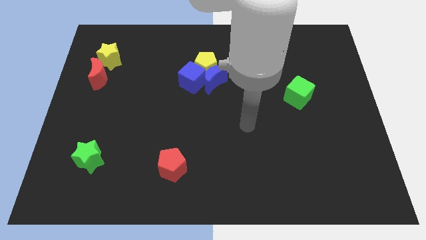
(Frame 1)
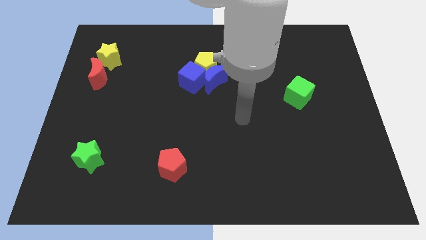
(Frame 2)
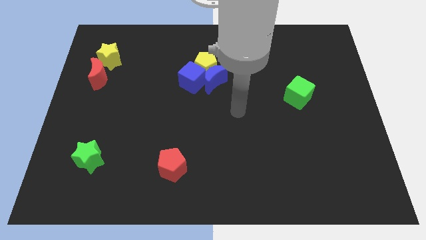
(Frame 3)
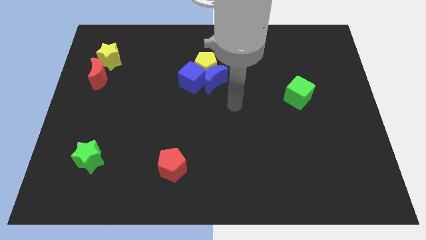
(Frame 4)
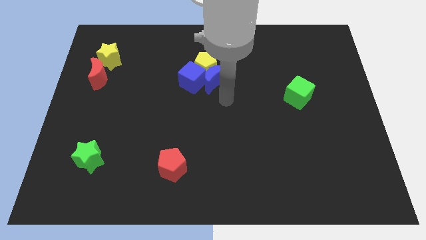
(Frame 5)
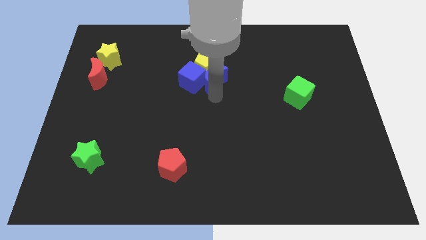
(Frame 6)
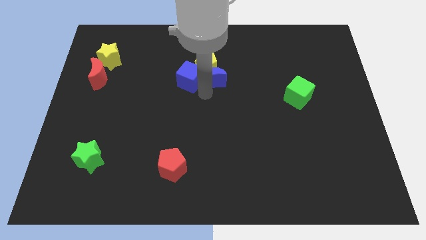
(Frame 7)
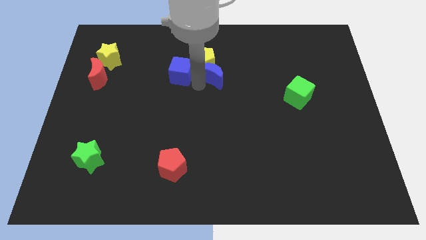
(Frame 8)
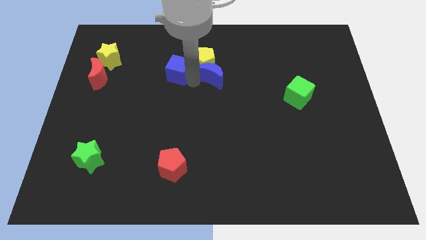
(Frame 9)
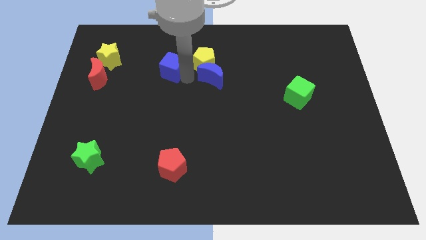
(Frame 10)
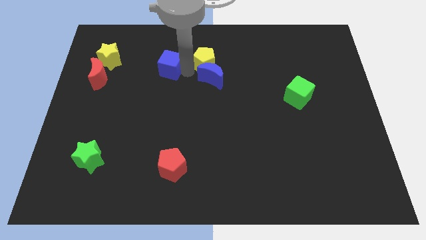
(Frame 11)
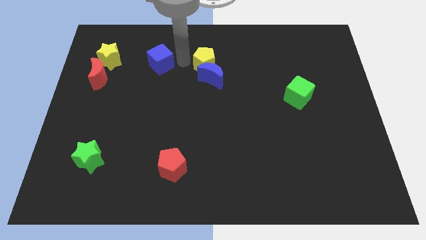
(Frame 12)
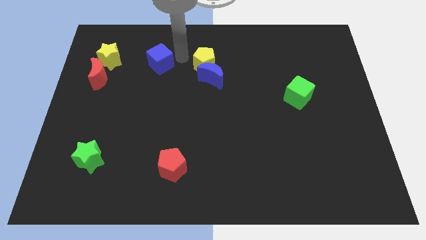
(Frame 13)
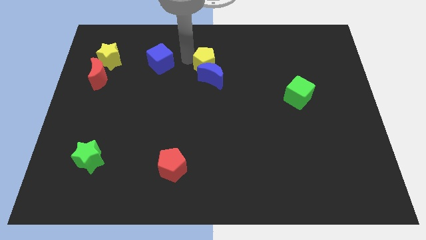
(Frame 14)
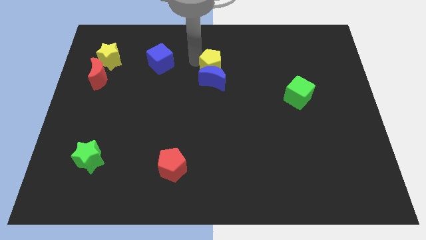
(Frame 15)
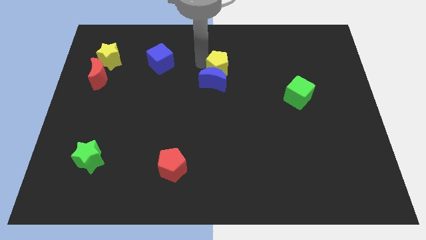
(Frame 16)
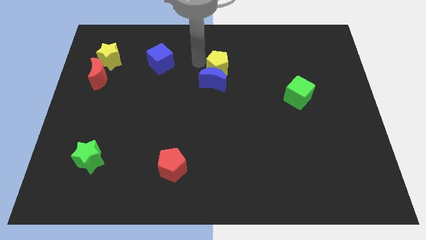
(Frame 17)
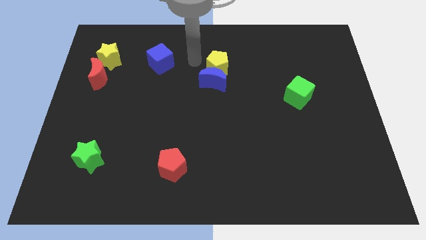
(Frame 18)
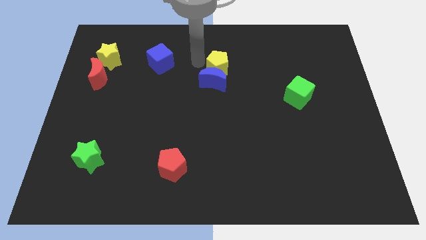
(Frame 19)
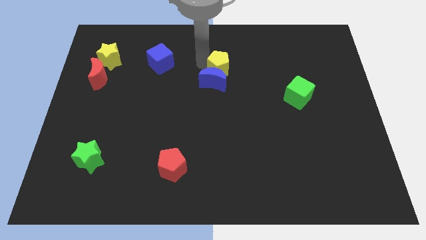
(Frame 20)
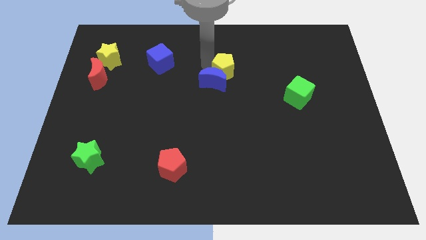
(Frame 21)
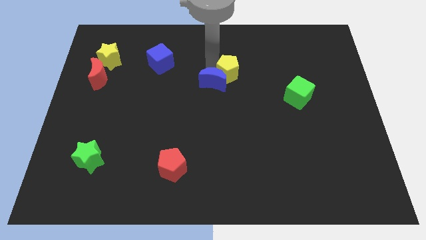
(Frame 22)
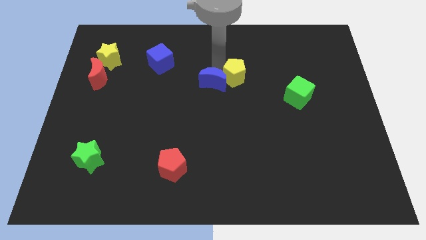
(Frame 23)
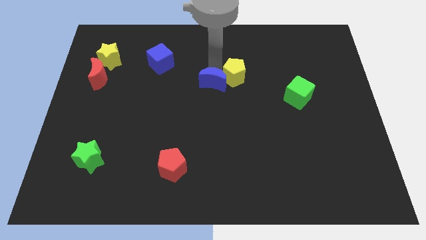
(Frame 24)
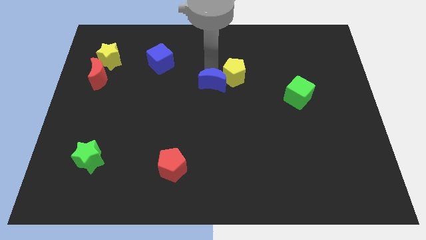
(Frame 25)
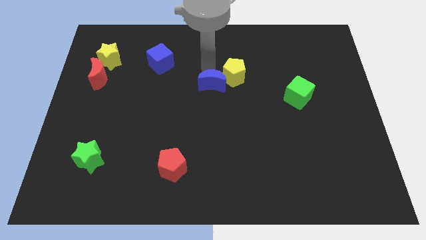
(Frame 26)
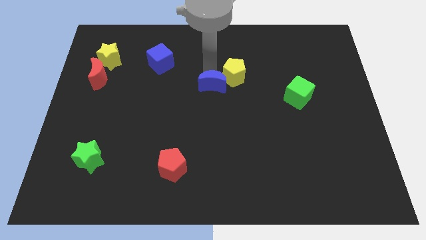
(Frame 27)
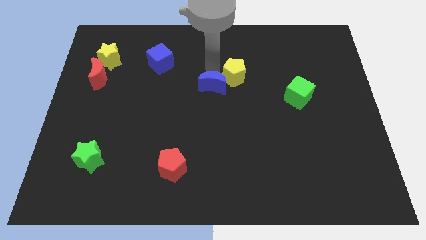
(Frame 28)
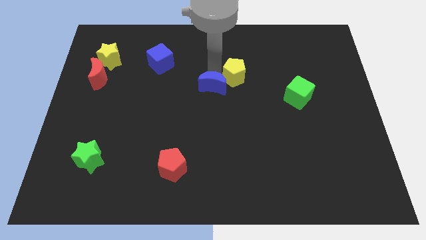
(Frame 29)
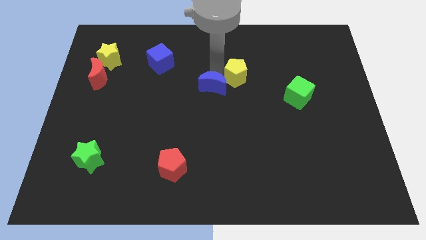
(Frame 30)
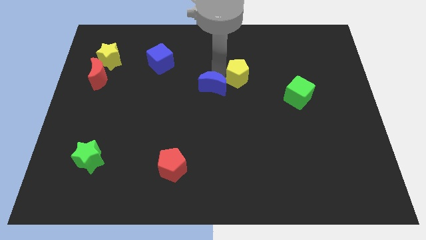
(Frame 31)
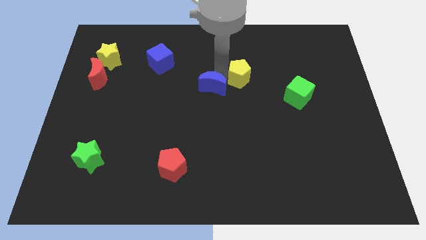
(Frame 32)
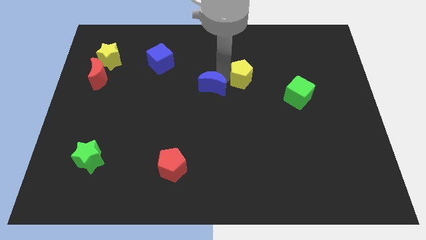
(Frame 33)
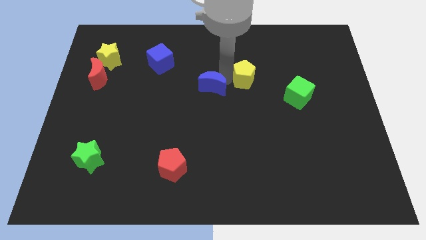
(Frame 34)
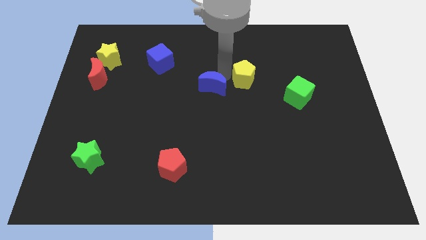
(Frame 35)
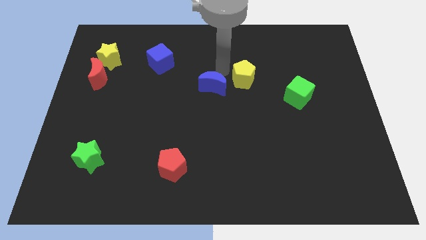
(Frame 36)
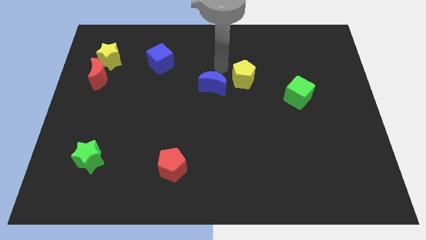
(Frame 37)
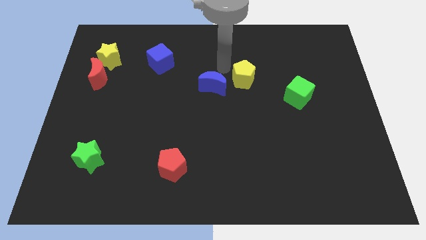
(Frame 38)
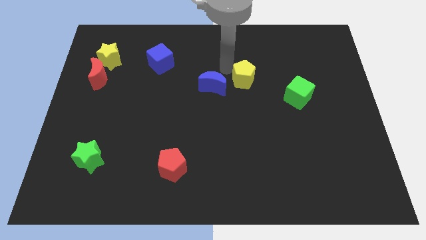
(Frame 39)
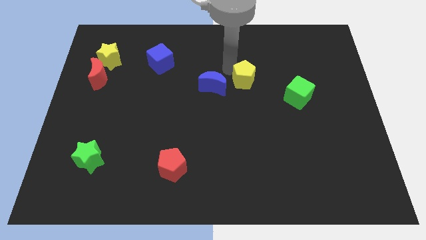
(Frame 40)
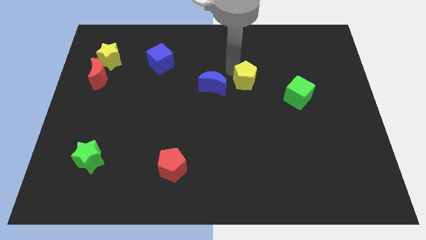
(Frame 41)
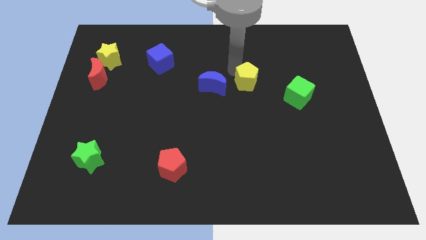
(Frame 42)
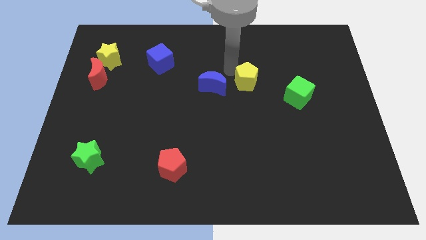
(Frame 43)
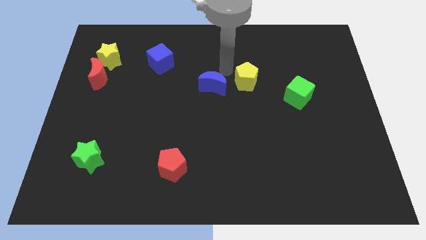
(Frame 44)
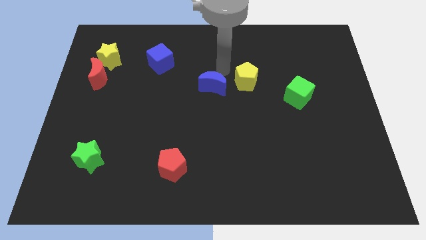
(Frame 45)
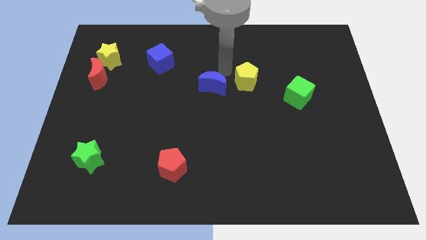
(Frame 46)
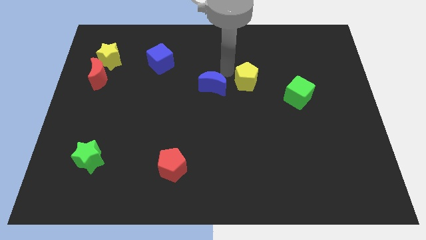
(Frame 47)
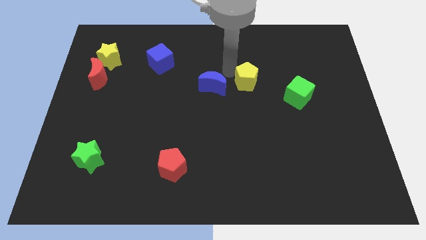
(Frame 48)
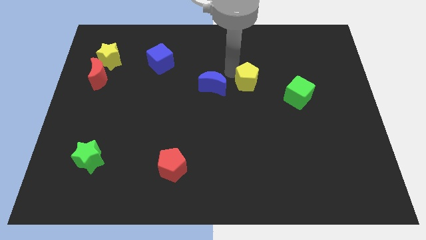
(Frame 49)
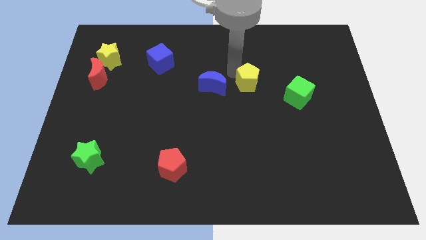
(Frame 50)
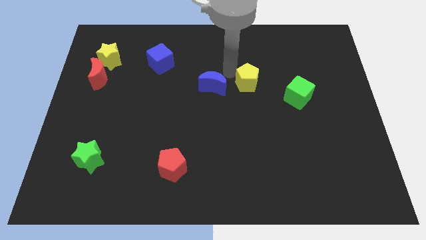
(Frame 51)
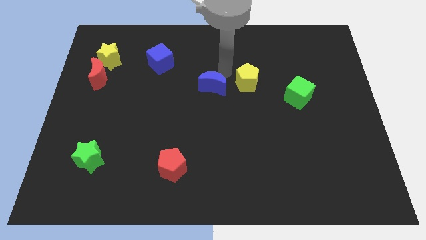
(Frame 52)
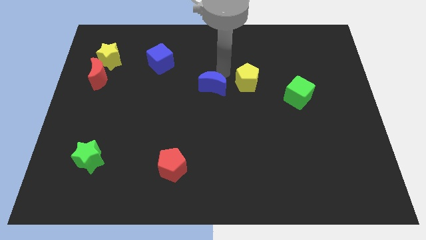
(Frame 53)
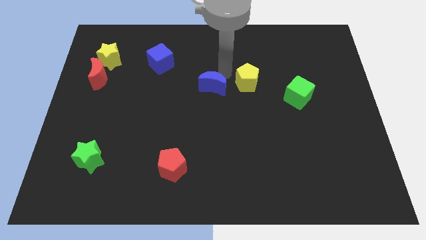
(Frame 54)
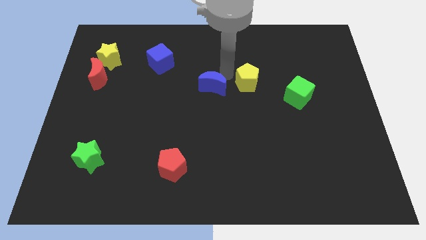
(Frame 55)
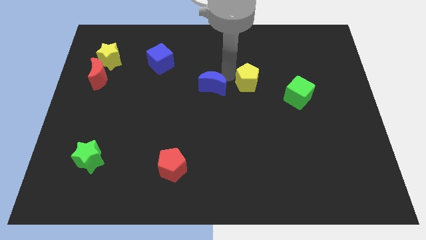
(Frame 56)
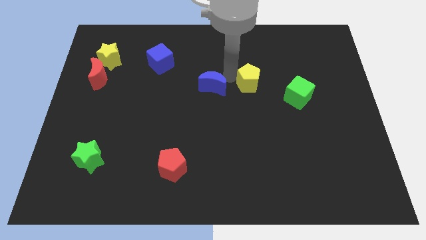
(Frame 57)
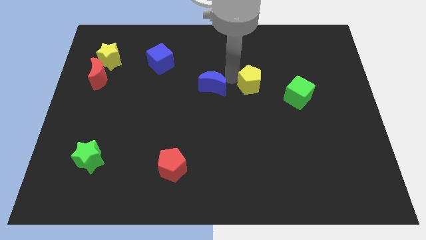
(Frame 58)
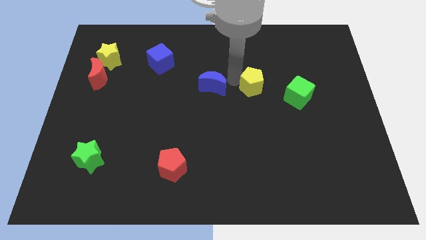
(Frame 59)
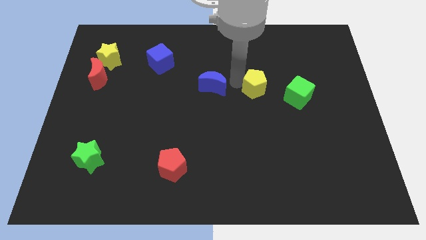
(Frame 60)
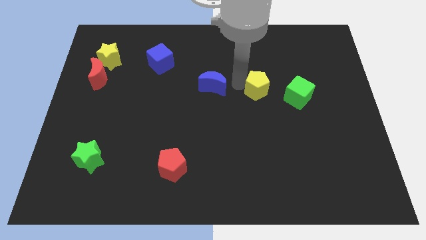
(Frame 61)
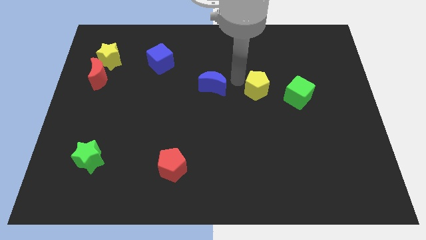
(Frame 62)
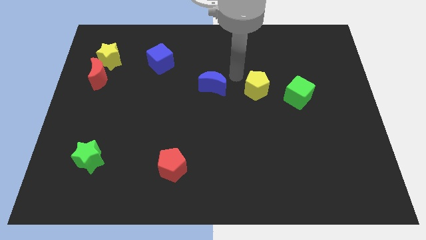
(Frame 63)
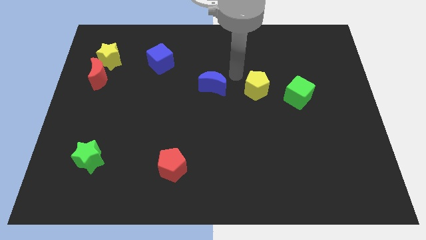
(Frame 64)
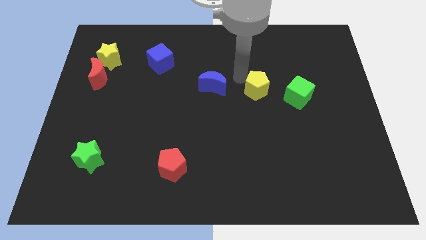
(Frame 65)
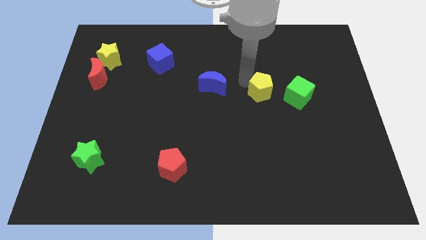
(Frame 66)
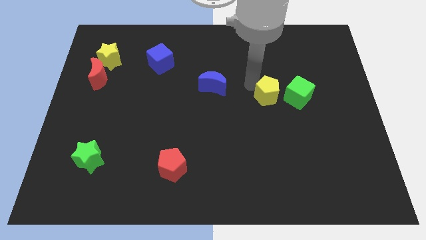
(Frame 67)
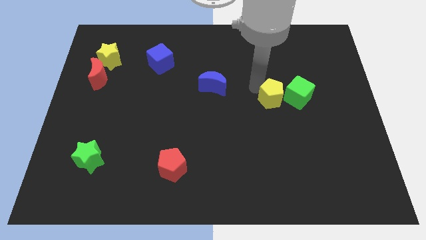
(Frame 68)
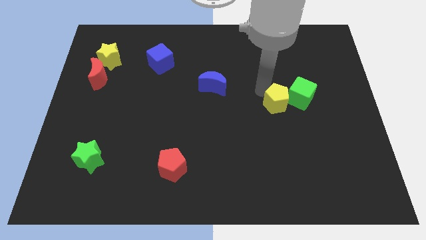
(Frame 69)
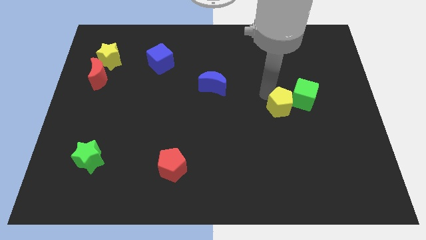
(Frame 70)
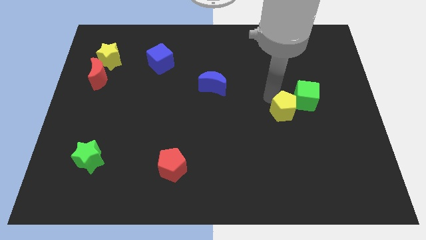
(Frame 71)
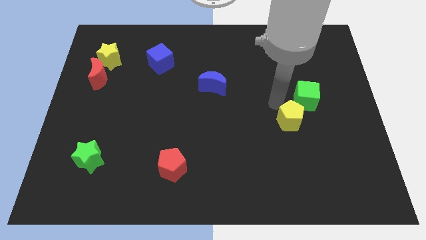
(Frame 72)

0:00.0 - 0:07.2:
slide the yellow pentagon below the green cube

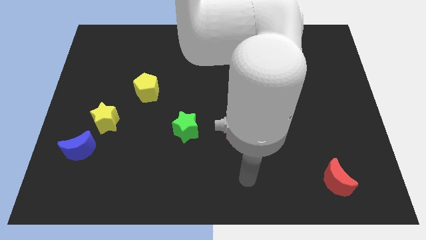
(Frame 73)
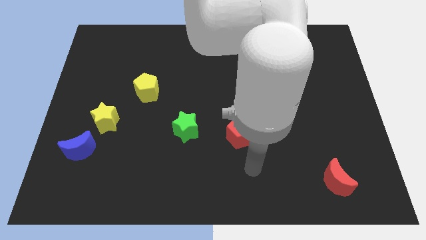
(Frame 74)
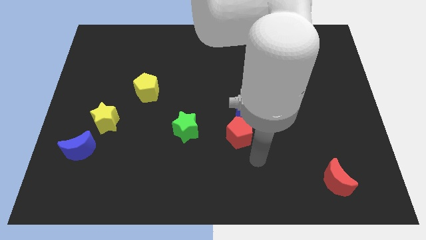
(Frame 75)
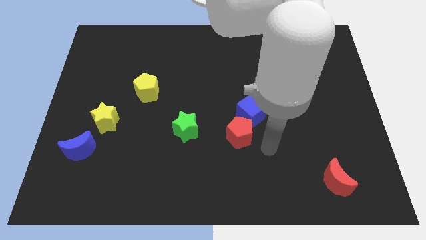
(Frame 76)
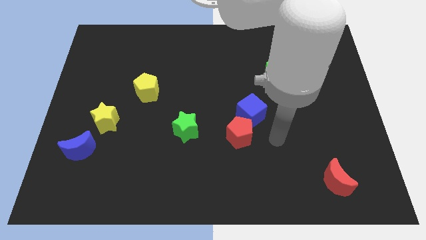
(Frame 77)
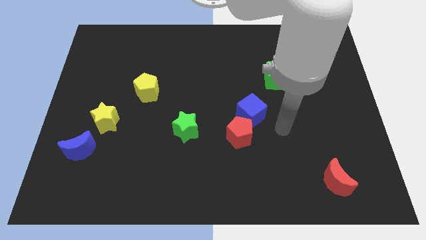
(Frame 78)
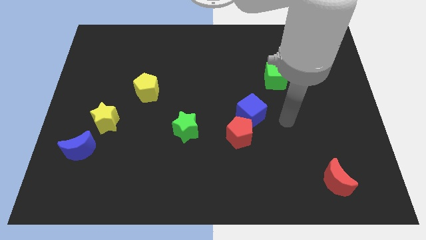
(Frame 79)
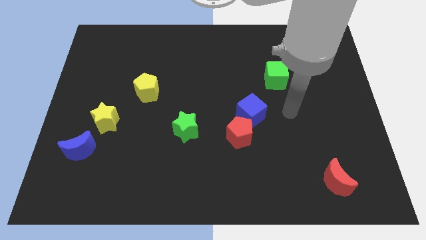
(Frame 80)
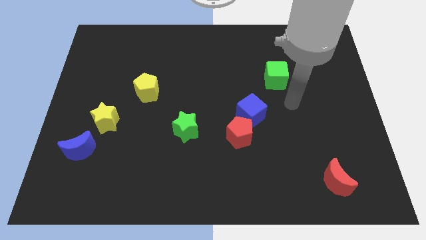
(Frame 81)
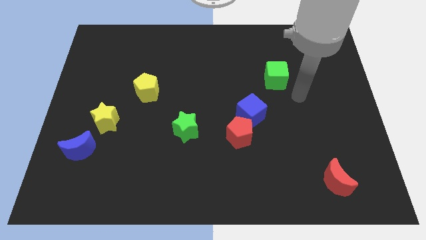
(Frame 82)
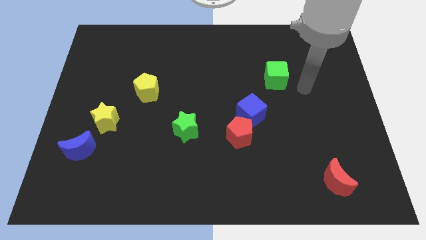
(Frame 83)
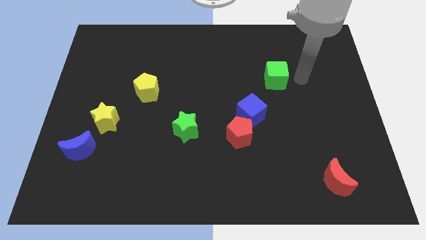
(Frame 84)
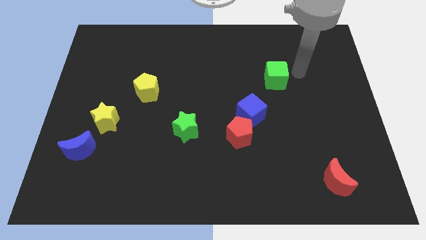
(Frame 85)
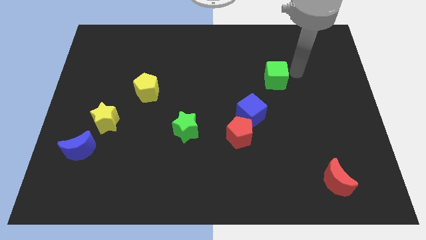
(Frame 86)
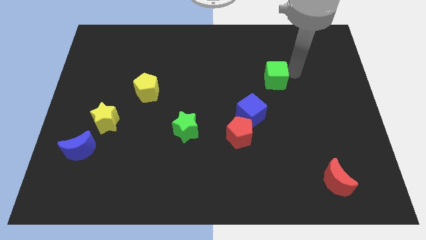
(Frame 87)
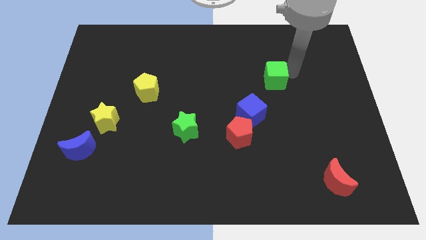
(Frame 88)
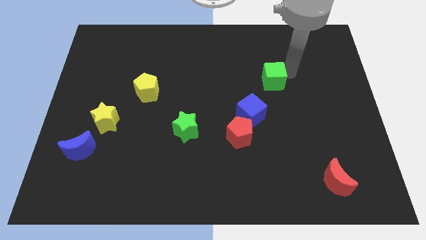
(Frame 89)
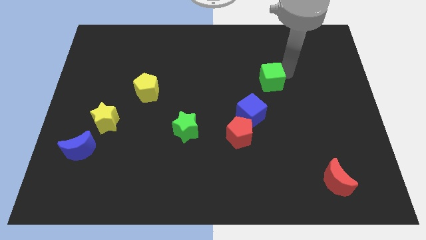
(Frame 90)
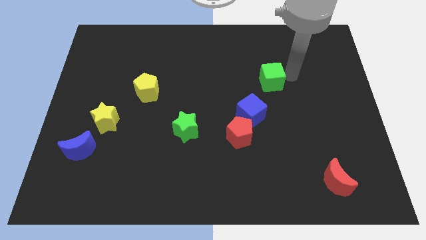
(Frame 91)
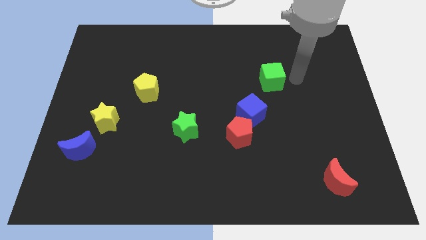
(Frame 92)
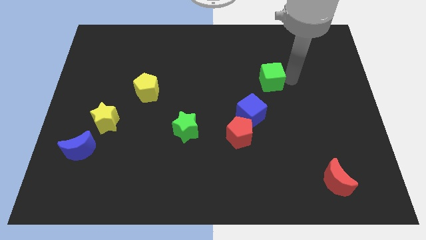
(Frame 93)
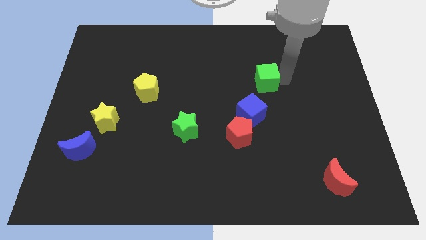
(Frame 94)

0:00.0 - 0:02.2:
put the green cube to the top side of the blue cube
